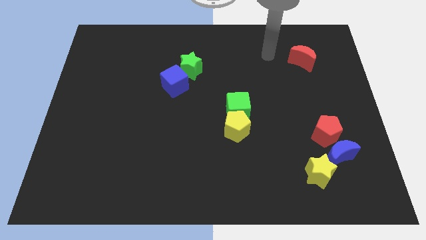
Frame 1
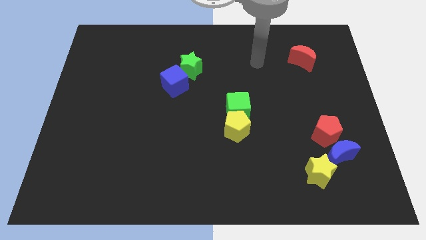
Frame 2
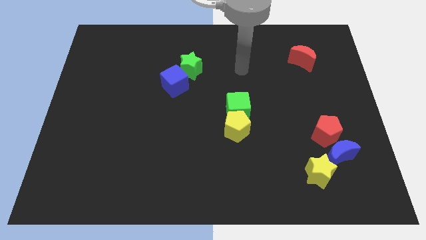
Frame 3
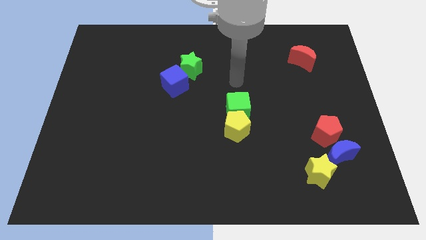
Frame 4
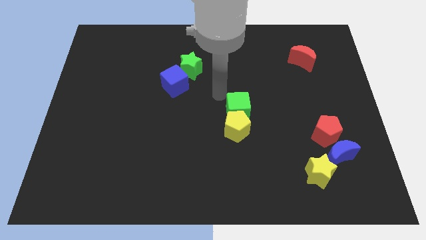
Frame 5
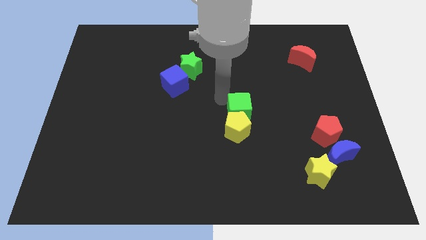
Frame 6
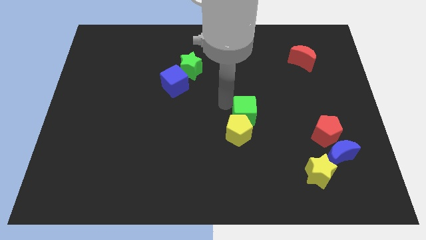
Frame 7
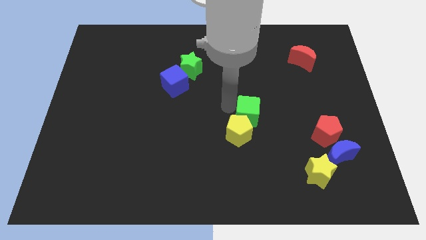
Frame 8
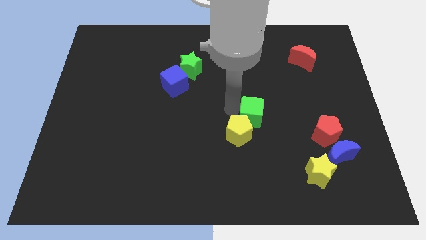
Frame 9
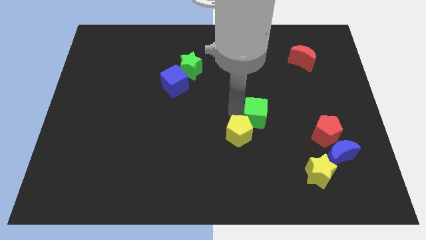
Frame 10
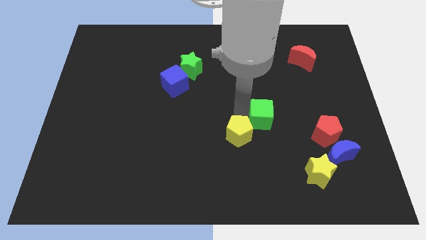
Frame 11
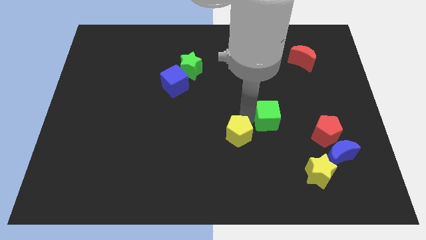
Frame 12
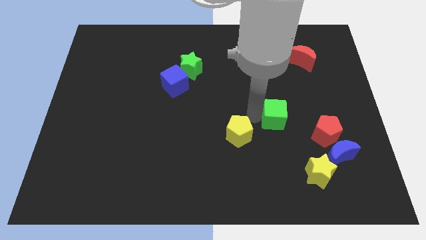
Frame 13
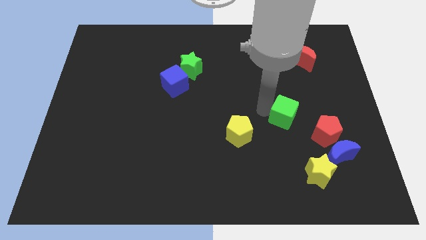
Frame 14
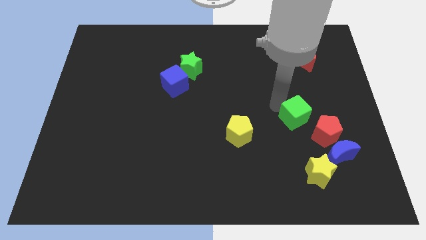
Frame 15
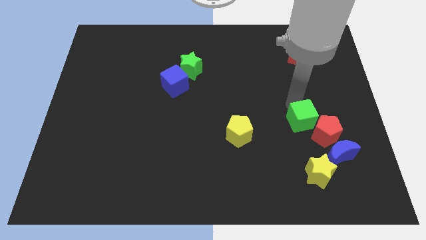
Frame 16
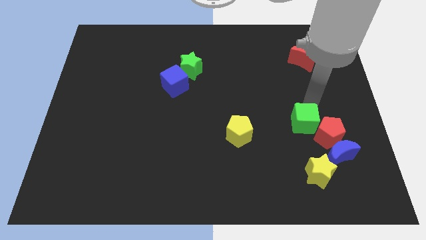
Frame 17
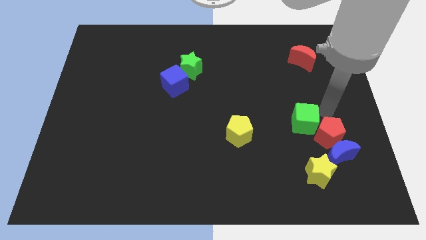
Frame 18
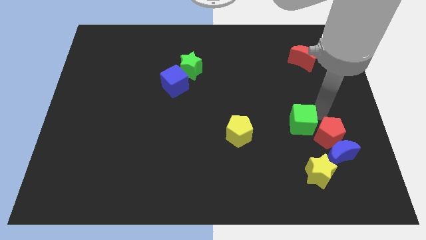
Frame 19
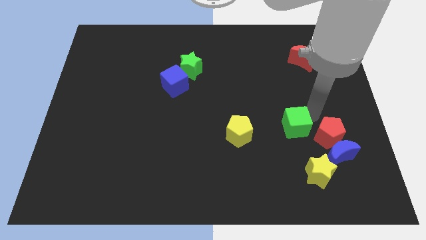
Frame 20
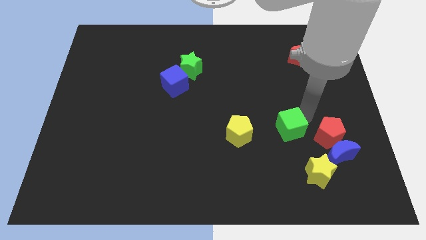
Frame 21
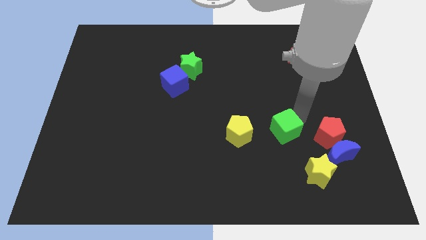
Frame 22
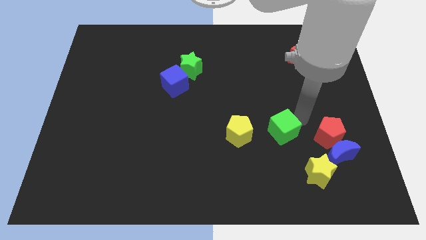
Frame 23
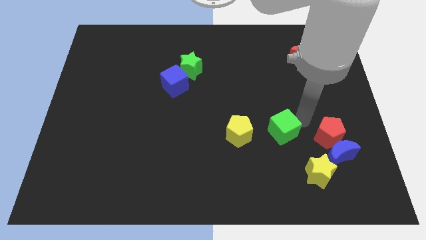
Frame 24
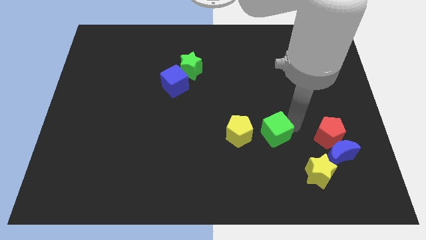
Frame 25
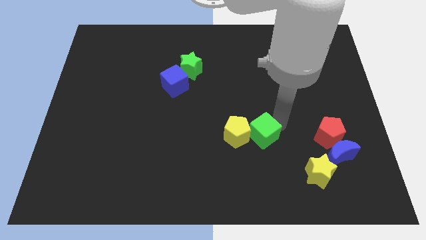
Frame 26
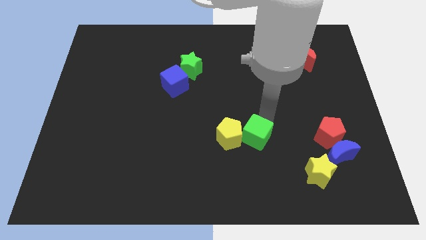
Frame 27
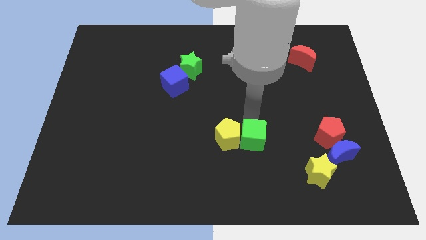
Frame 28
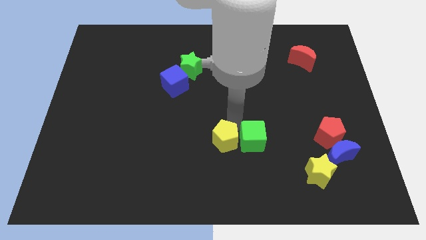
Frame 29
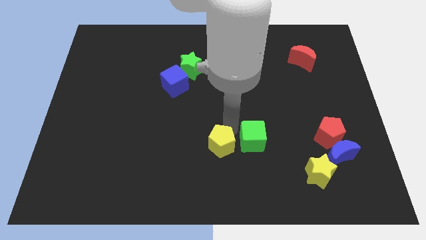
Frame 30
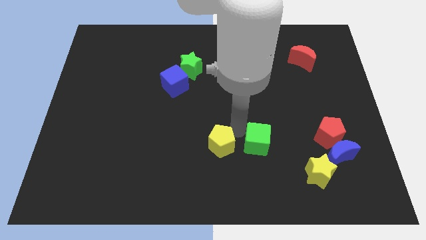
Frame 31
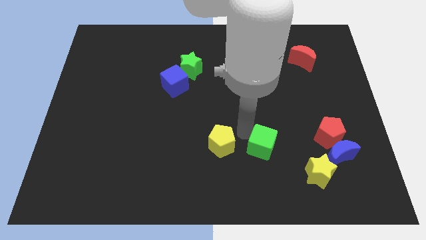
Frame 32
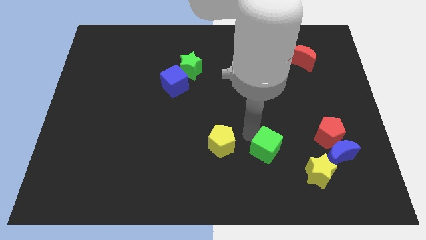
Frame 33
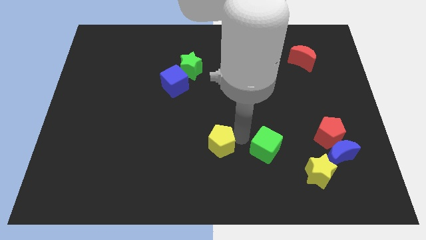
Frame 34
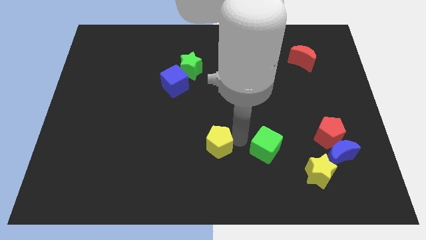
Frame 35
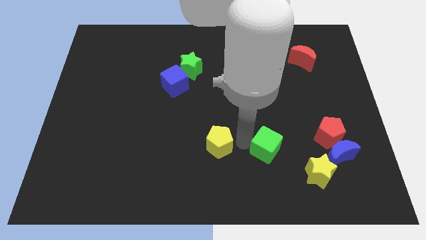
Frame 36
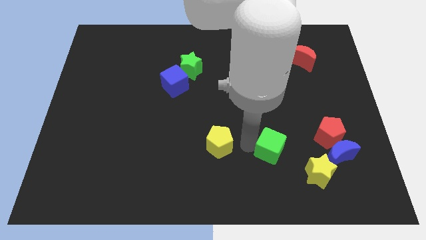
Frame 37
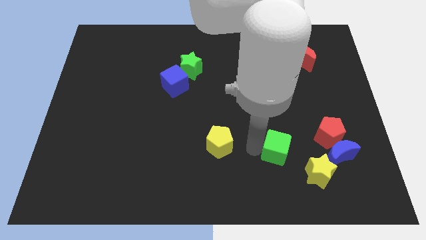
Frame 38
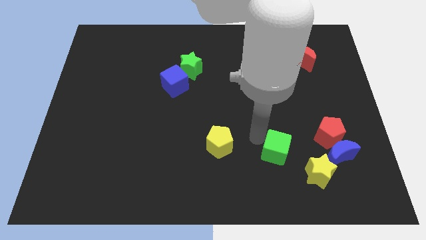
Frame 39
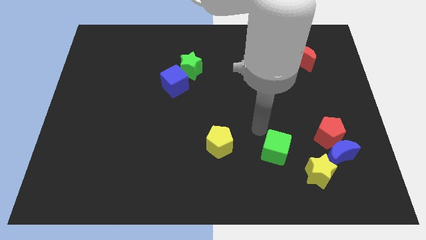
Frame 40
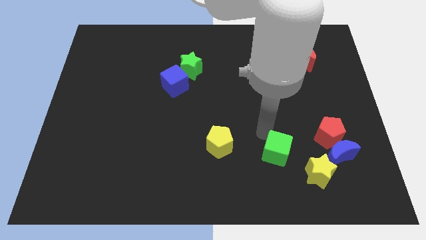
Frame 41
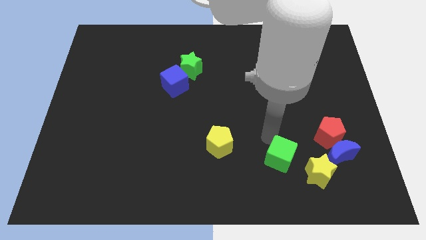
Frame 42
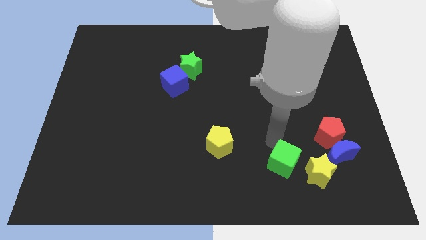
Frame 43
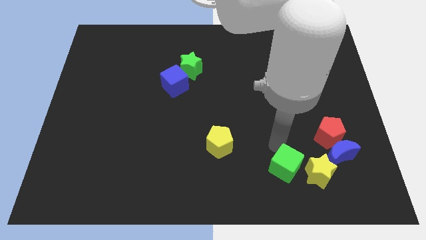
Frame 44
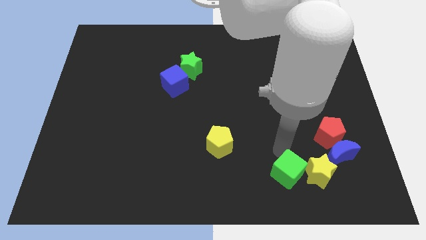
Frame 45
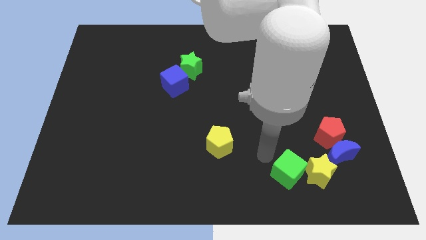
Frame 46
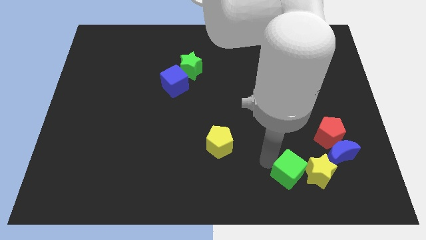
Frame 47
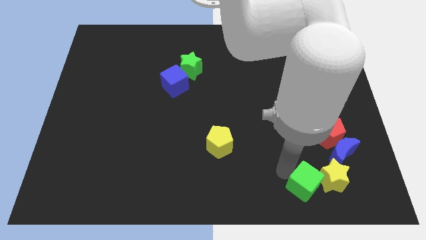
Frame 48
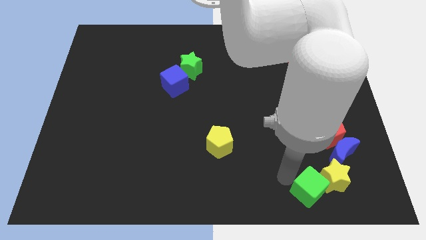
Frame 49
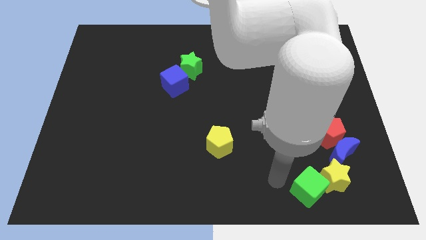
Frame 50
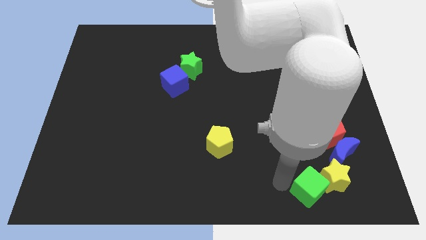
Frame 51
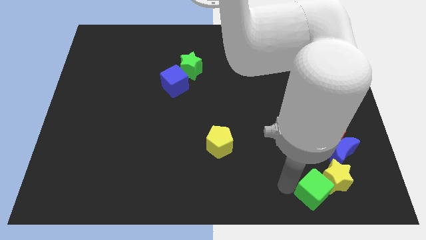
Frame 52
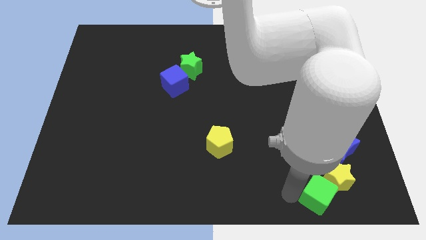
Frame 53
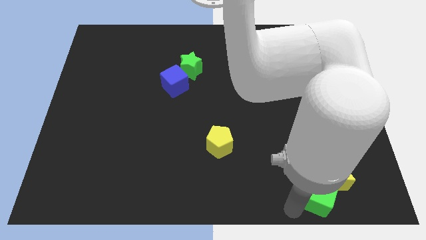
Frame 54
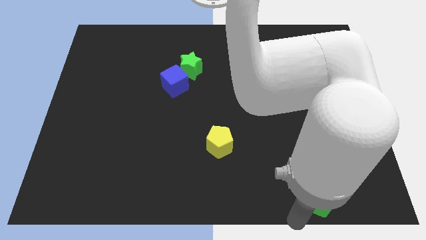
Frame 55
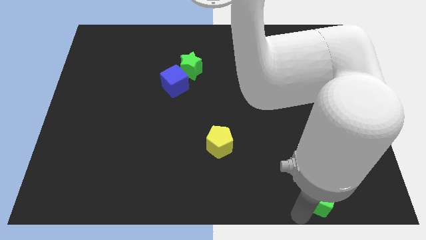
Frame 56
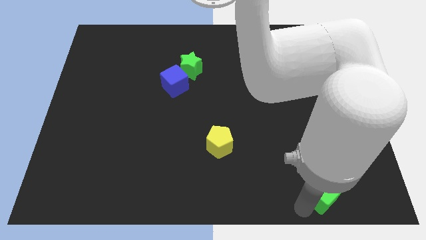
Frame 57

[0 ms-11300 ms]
slide the green cube to the bottom side of the red pentagon

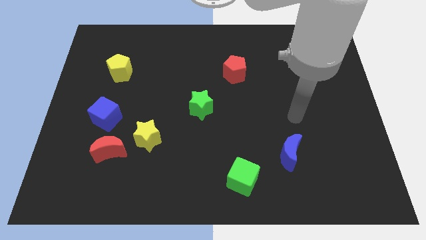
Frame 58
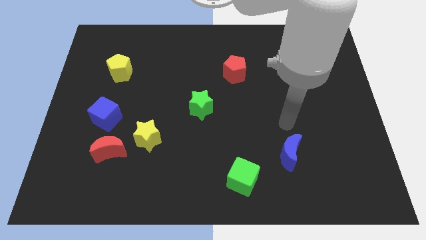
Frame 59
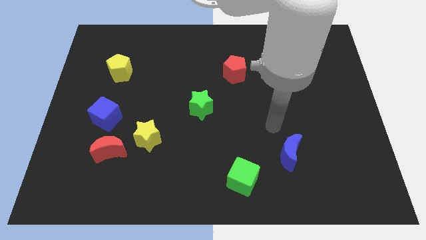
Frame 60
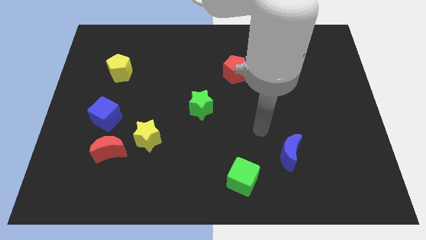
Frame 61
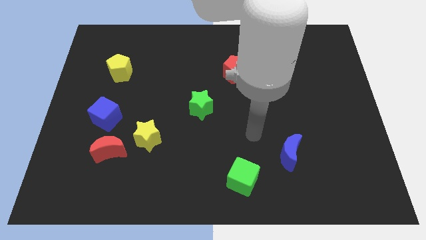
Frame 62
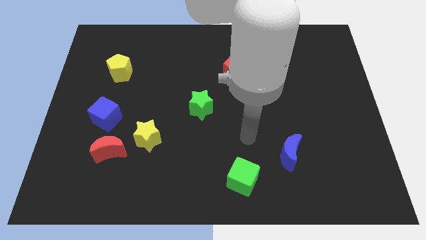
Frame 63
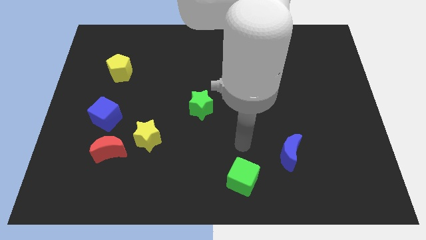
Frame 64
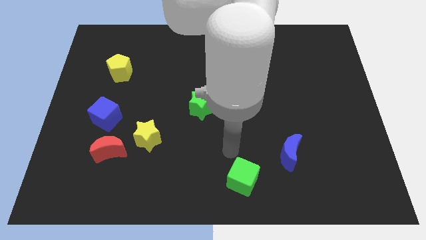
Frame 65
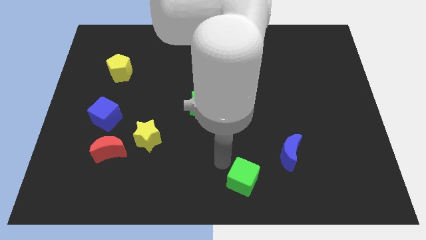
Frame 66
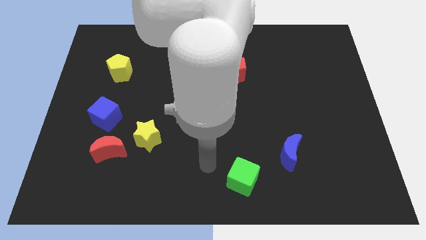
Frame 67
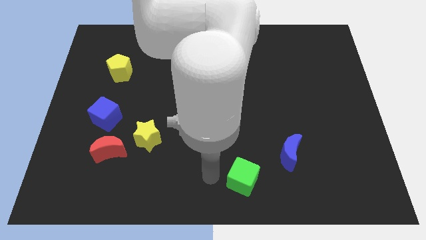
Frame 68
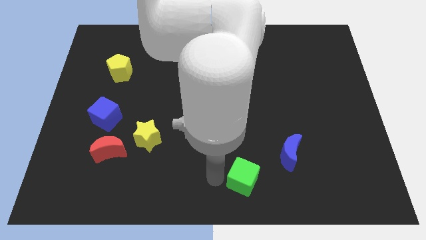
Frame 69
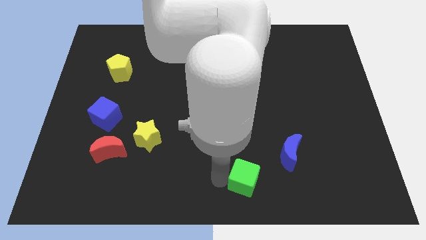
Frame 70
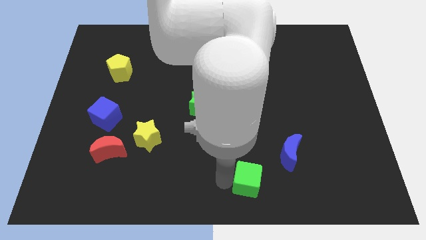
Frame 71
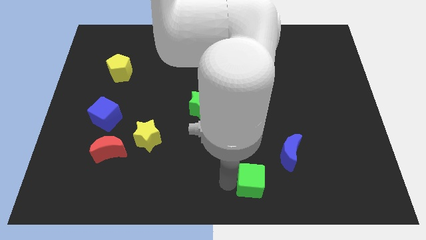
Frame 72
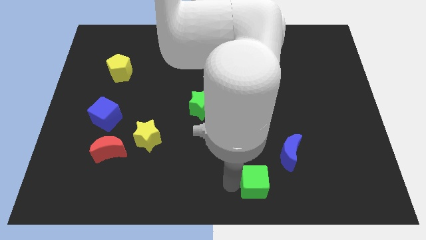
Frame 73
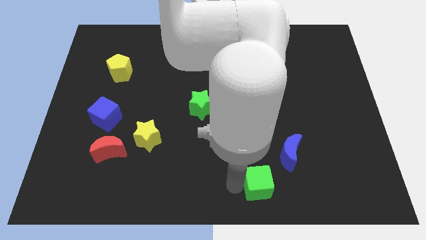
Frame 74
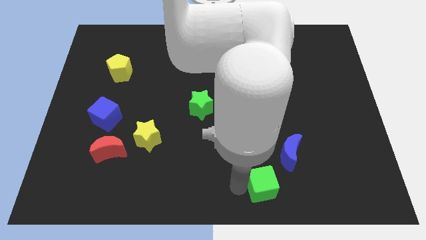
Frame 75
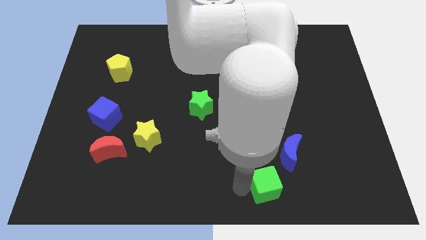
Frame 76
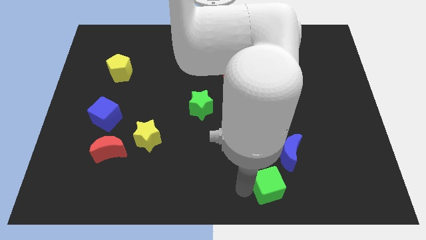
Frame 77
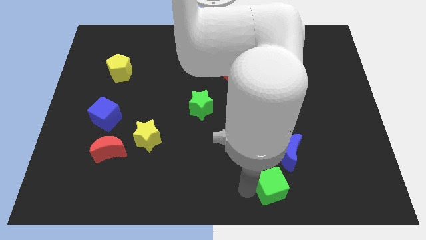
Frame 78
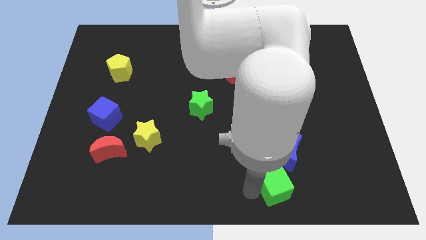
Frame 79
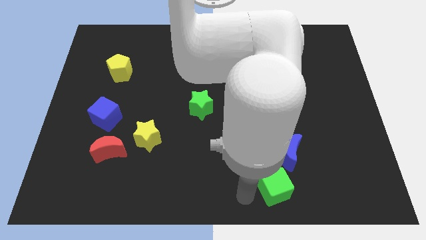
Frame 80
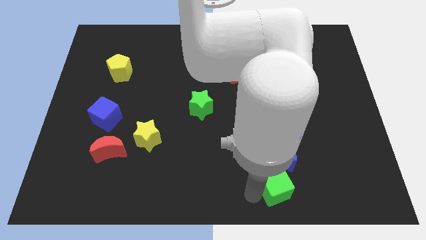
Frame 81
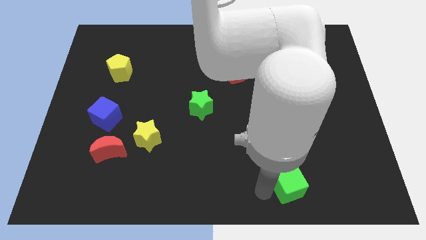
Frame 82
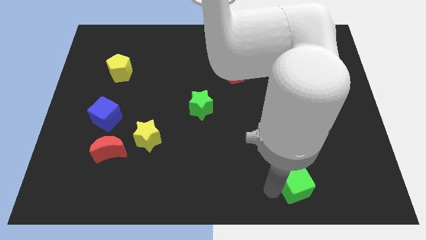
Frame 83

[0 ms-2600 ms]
move the green cube diagonally down and to the right of the blue moon
